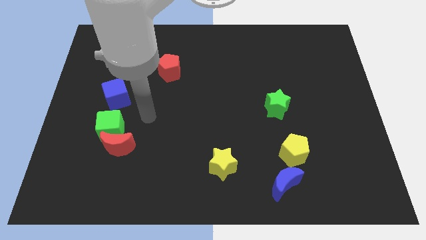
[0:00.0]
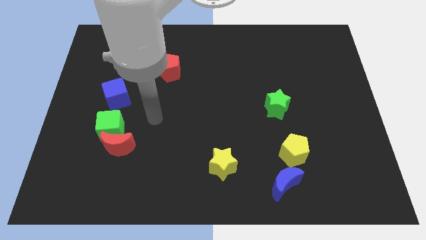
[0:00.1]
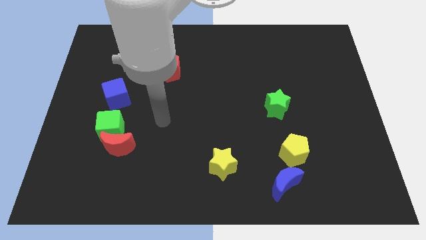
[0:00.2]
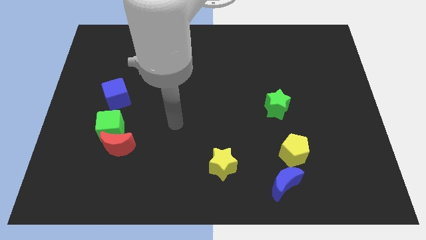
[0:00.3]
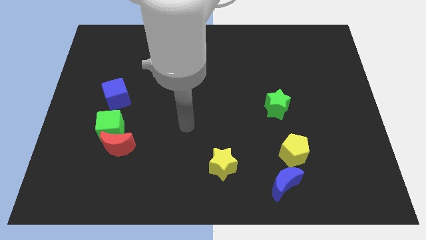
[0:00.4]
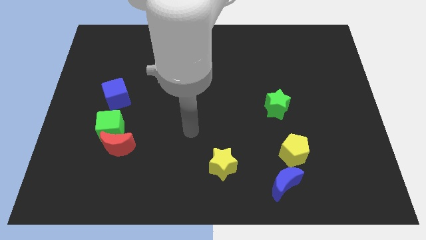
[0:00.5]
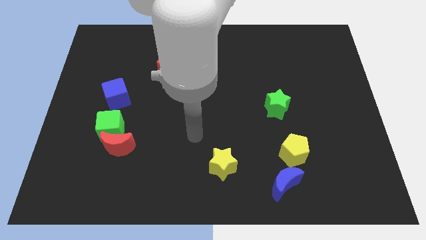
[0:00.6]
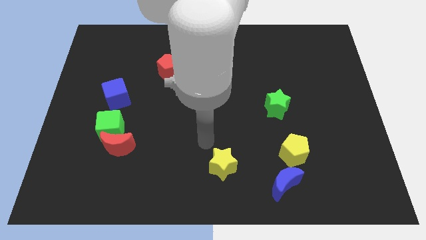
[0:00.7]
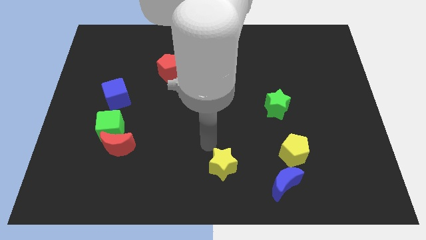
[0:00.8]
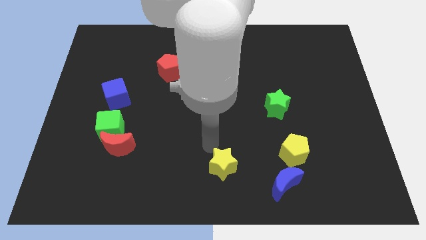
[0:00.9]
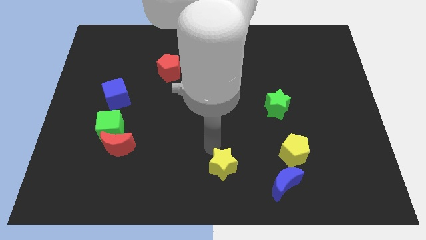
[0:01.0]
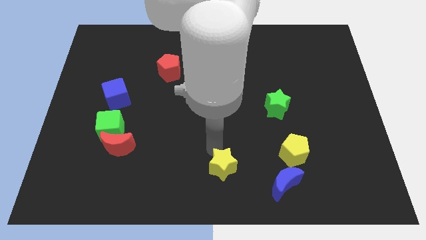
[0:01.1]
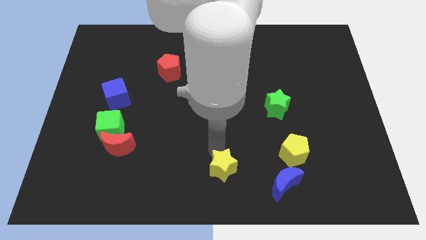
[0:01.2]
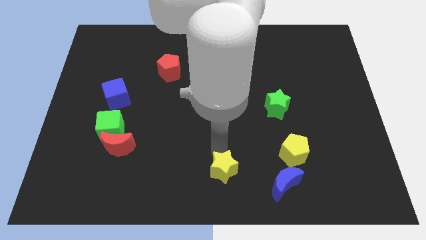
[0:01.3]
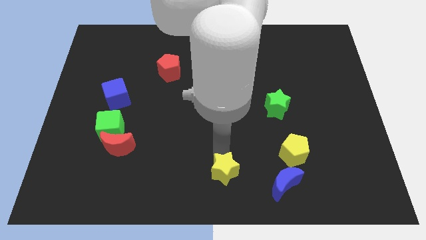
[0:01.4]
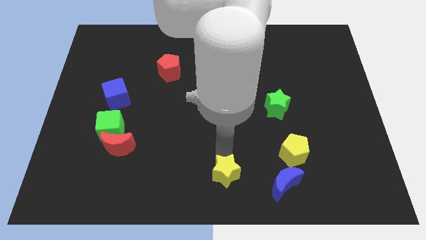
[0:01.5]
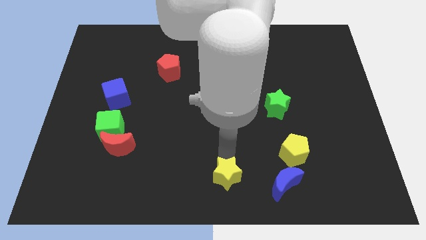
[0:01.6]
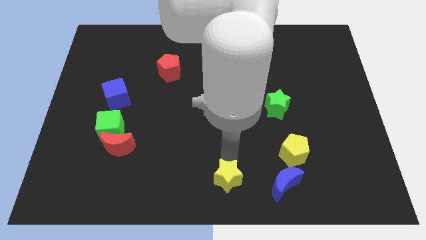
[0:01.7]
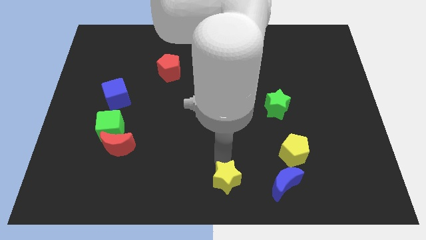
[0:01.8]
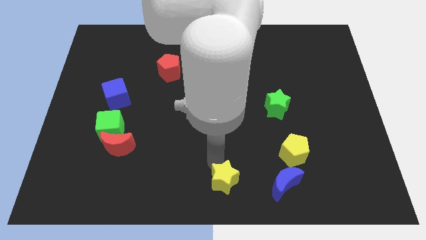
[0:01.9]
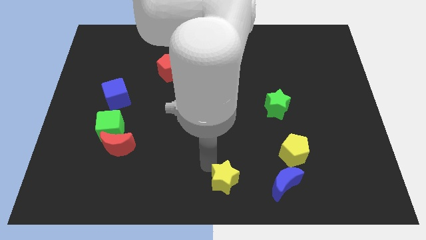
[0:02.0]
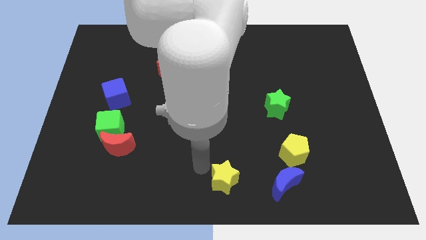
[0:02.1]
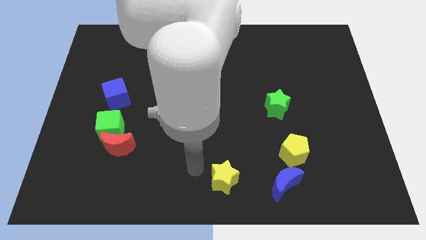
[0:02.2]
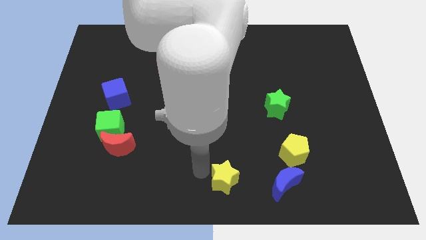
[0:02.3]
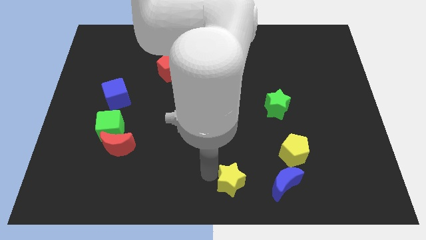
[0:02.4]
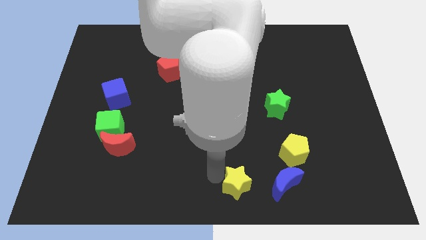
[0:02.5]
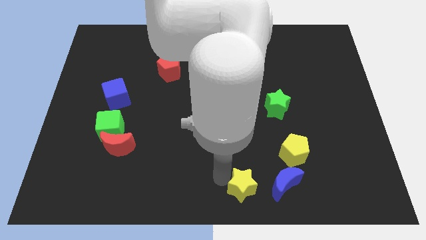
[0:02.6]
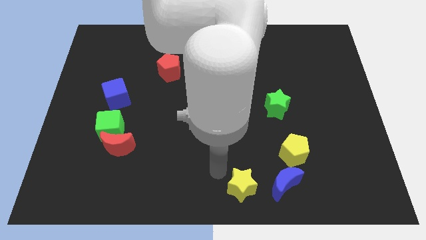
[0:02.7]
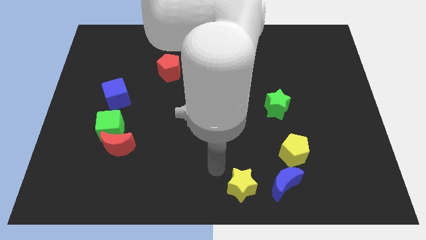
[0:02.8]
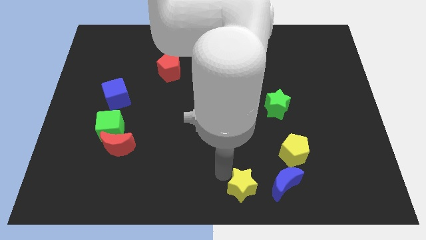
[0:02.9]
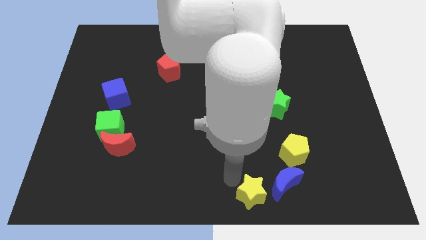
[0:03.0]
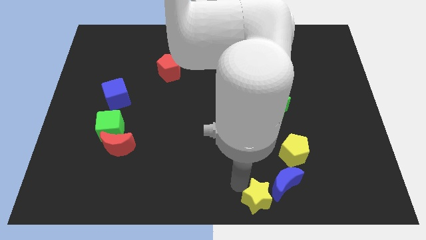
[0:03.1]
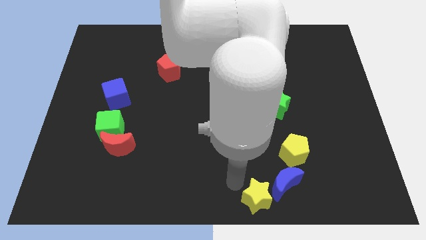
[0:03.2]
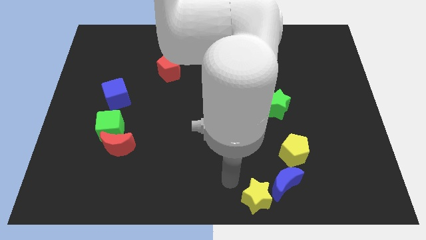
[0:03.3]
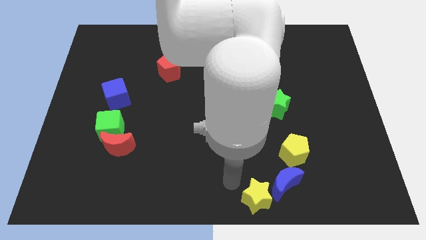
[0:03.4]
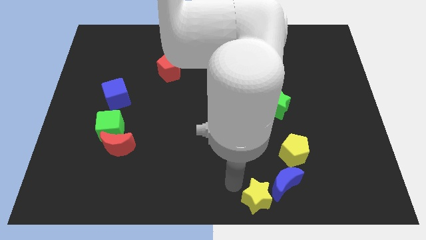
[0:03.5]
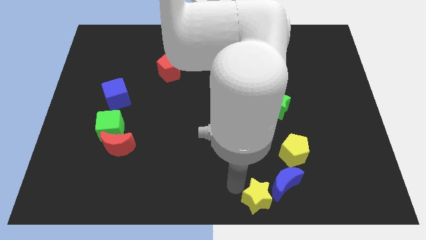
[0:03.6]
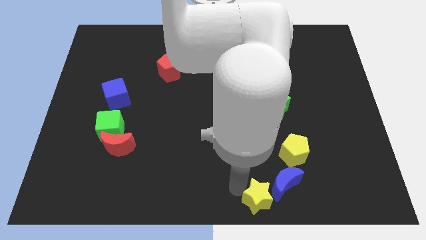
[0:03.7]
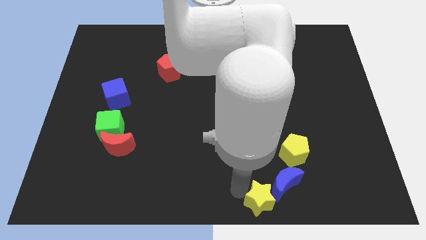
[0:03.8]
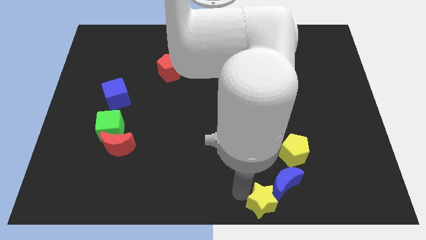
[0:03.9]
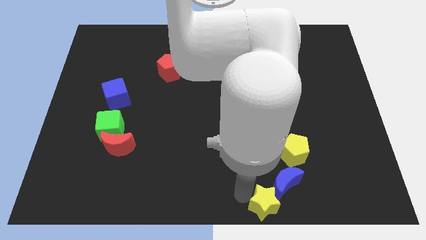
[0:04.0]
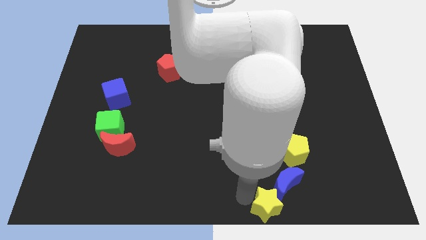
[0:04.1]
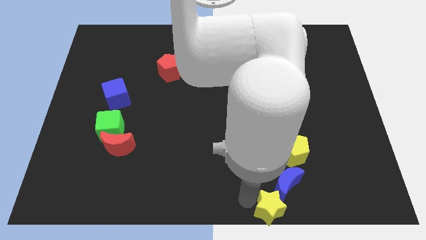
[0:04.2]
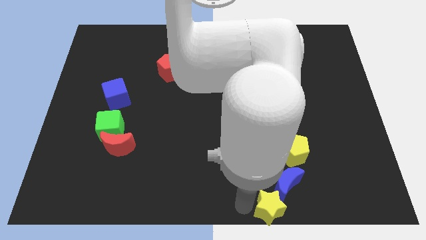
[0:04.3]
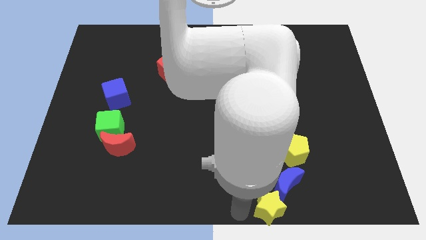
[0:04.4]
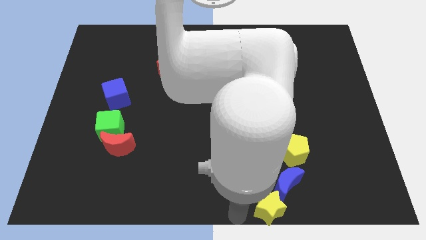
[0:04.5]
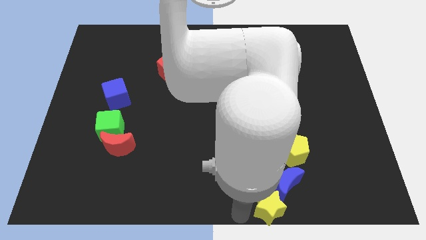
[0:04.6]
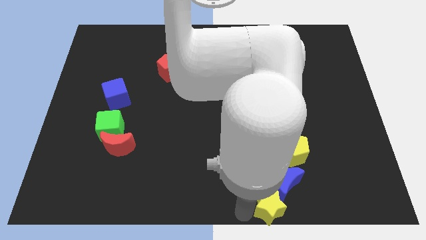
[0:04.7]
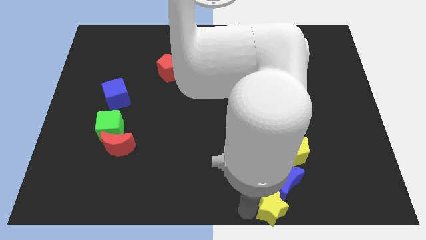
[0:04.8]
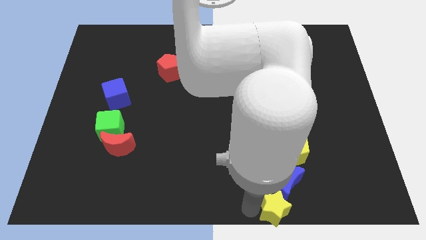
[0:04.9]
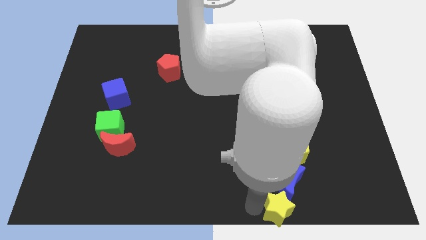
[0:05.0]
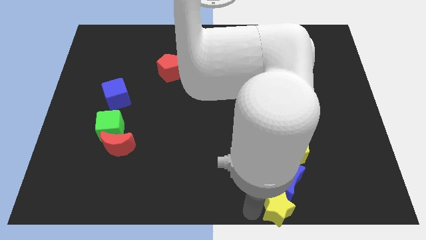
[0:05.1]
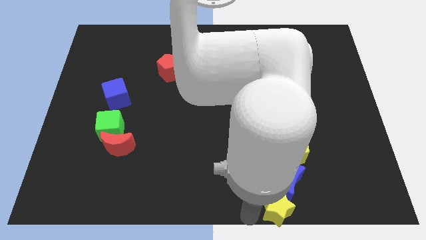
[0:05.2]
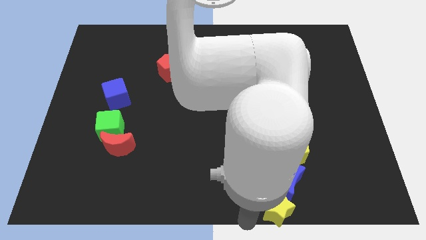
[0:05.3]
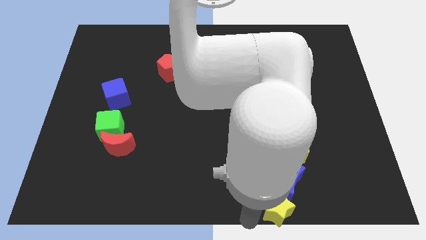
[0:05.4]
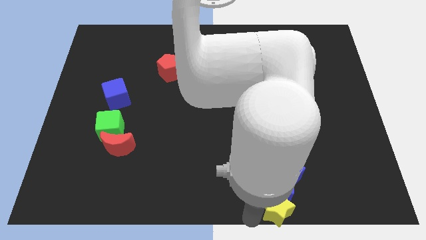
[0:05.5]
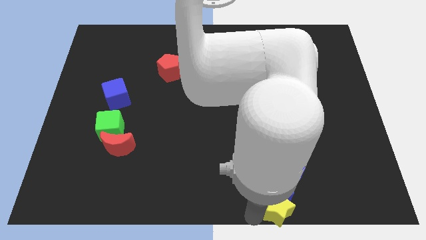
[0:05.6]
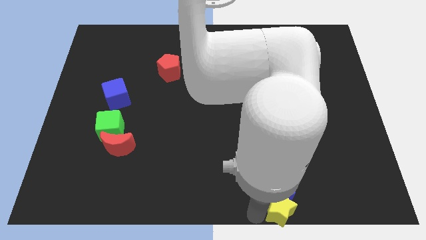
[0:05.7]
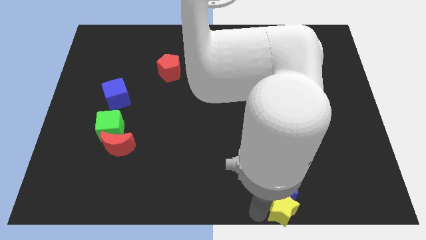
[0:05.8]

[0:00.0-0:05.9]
slightly slide the yellow star to the right

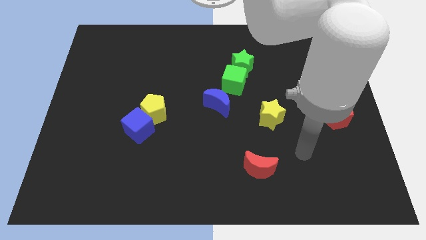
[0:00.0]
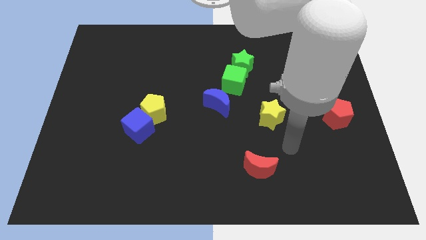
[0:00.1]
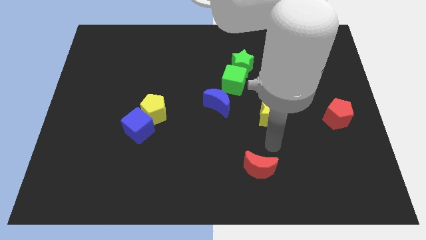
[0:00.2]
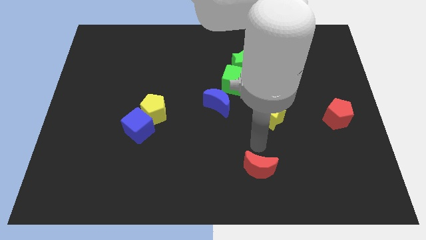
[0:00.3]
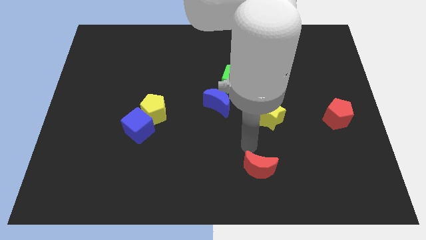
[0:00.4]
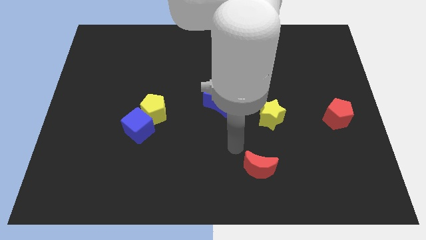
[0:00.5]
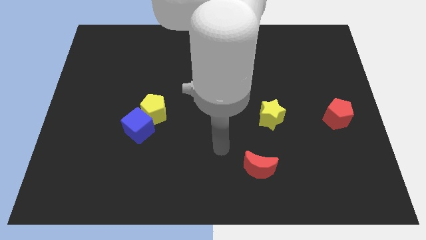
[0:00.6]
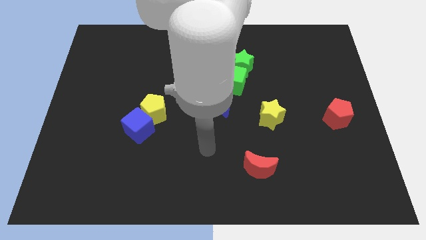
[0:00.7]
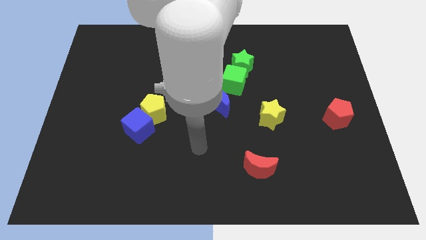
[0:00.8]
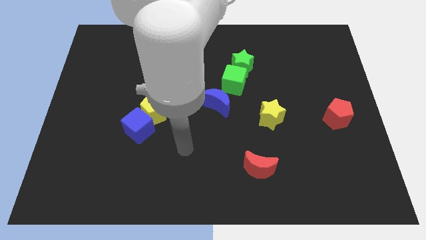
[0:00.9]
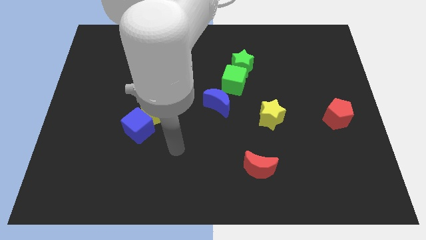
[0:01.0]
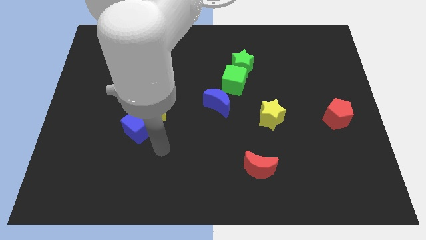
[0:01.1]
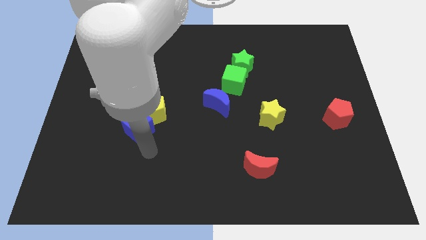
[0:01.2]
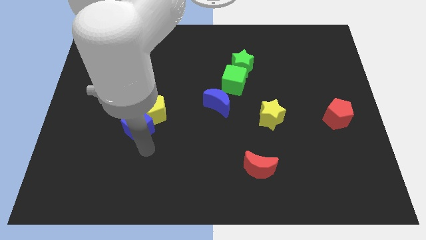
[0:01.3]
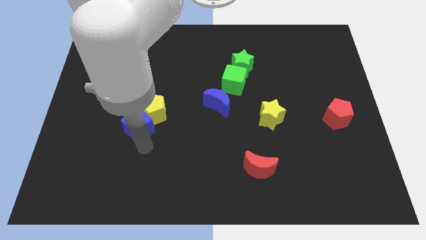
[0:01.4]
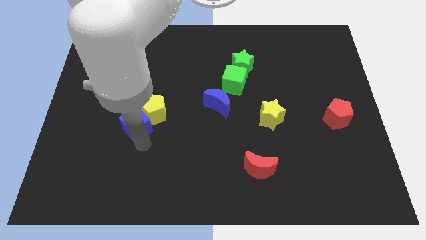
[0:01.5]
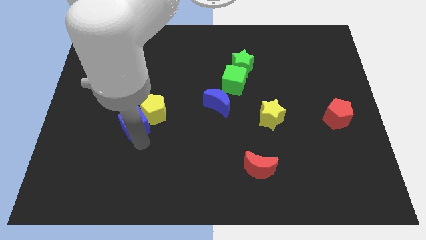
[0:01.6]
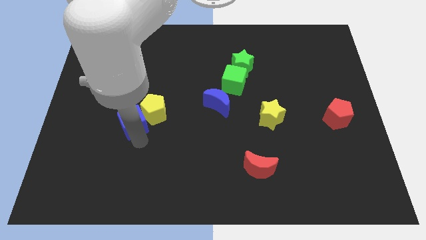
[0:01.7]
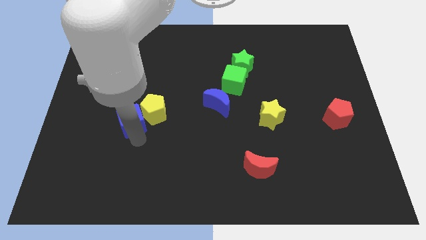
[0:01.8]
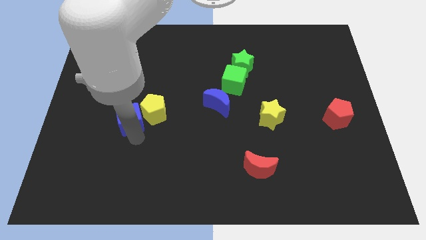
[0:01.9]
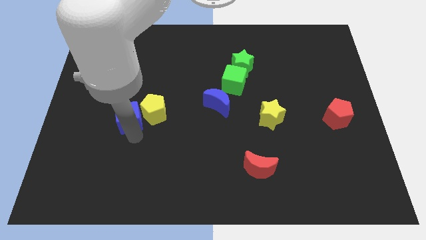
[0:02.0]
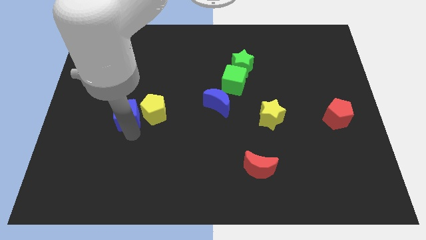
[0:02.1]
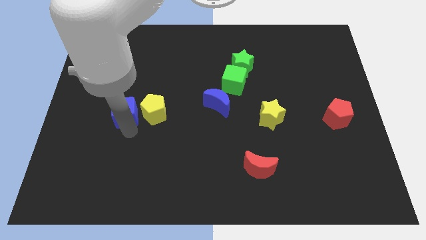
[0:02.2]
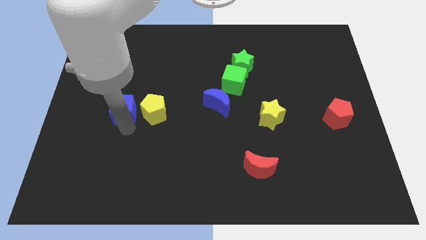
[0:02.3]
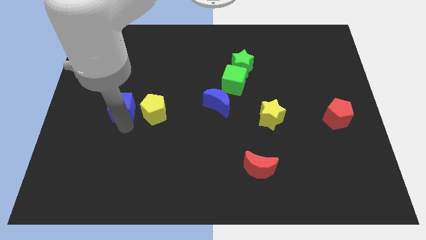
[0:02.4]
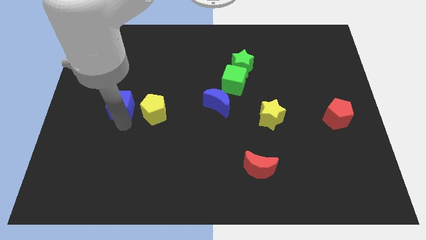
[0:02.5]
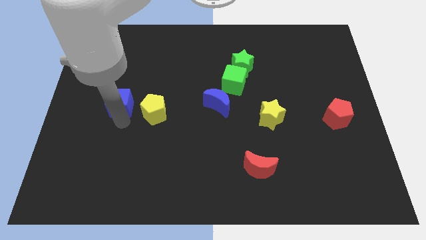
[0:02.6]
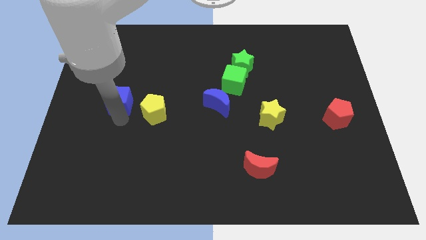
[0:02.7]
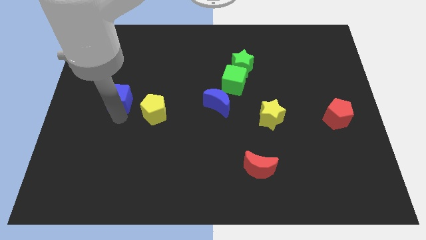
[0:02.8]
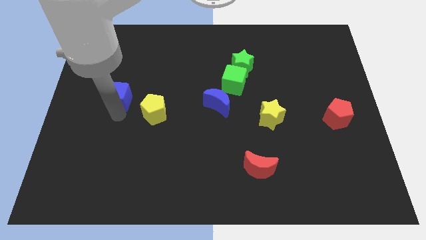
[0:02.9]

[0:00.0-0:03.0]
slide the blue cube a little bit up
